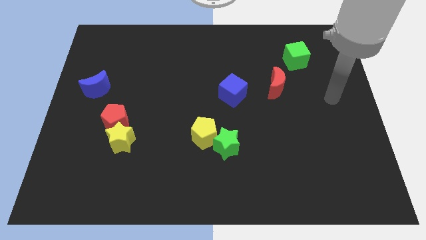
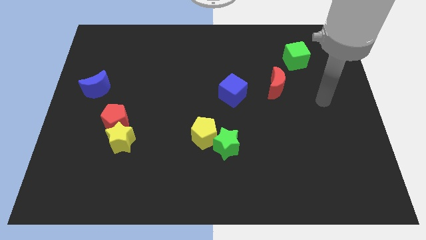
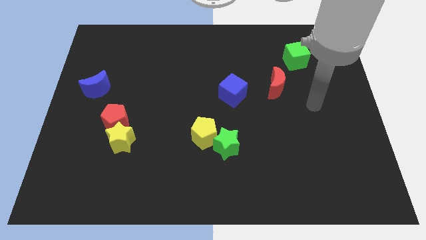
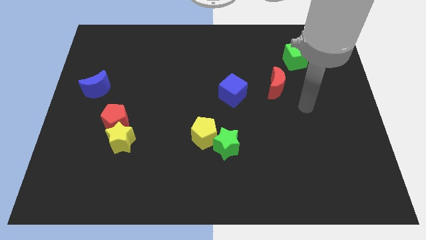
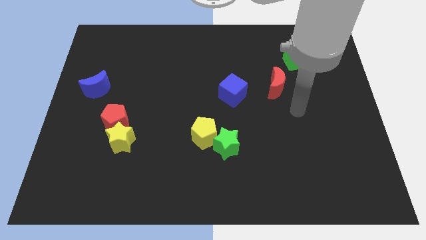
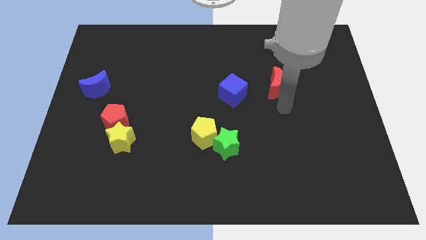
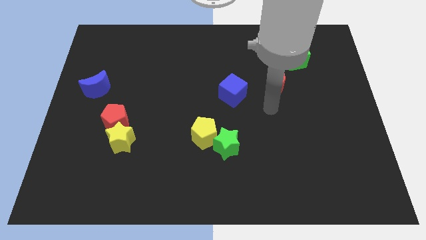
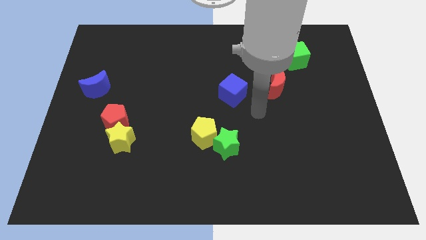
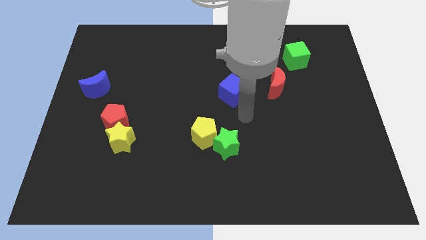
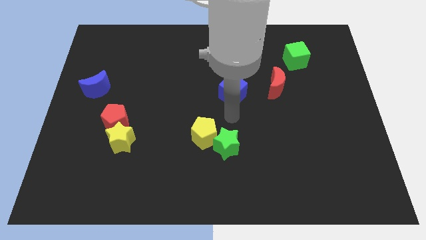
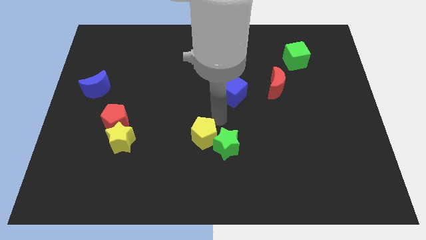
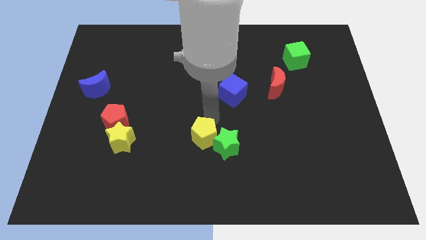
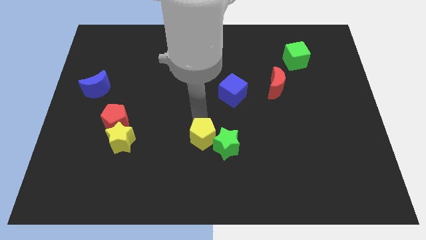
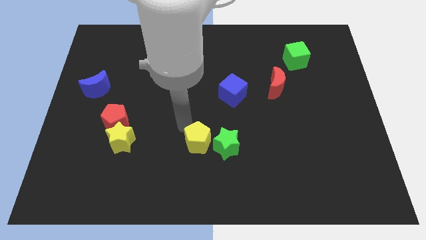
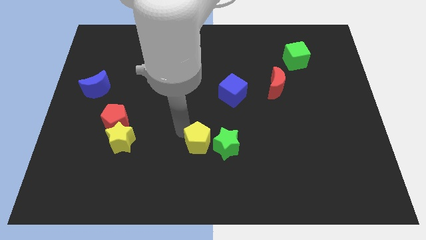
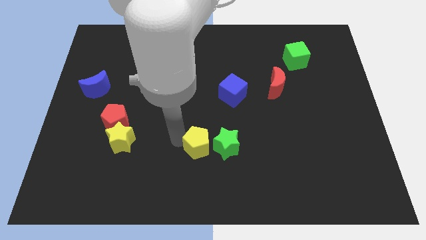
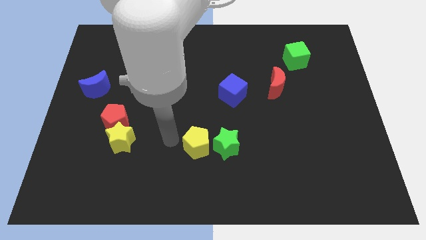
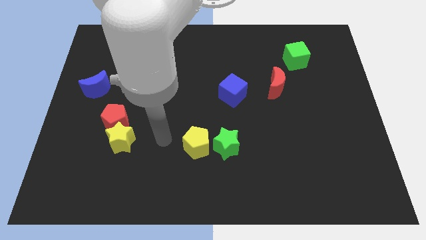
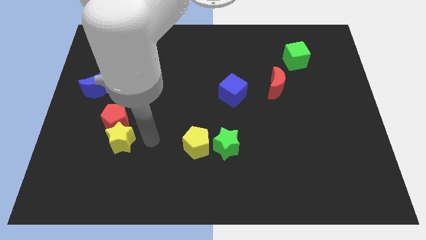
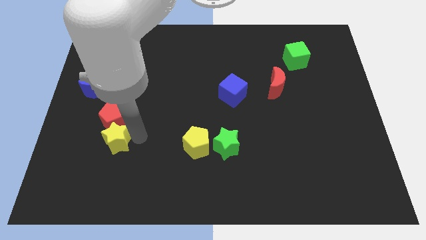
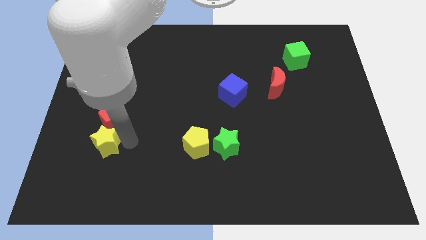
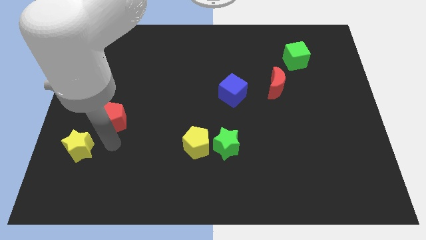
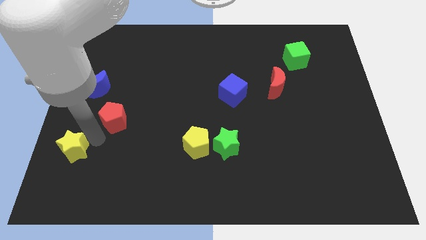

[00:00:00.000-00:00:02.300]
separate the red pentagon from the yellow star

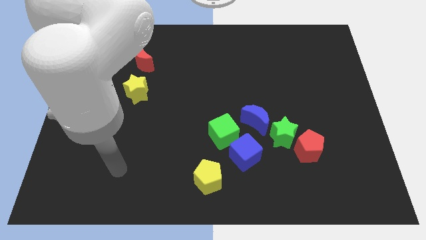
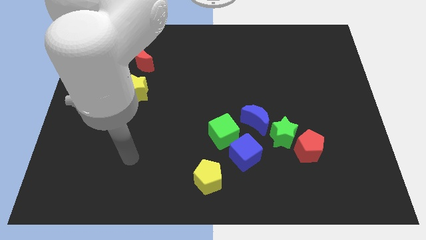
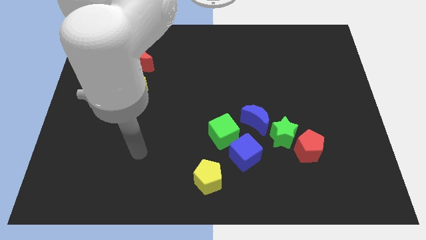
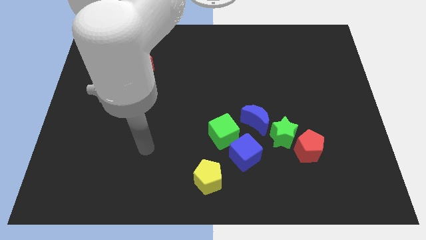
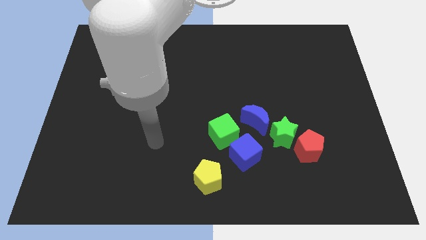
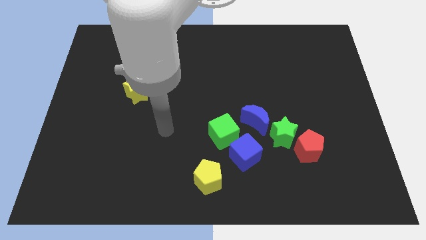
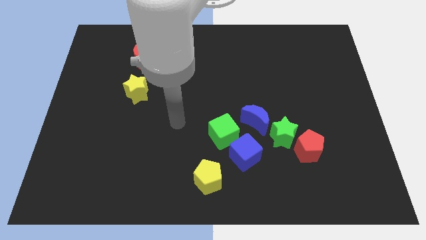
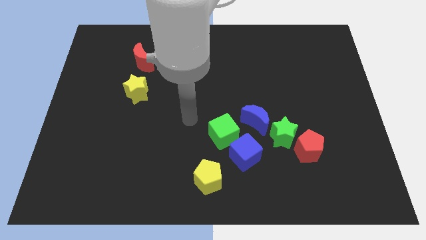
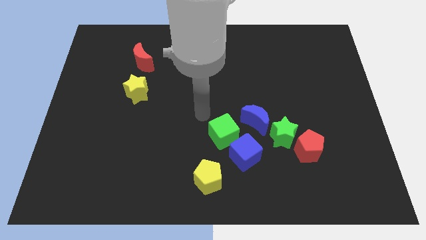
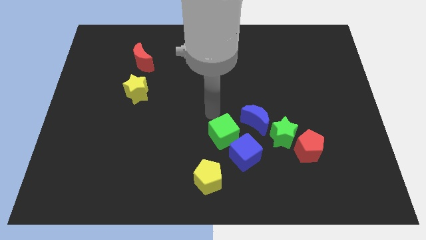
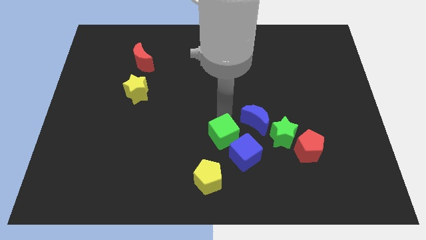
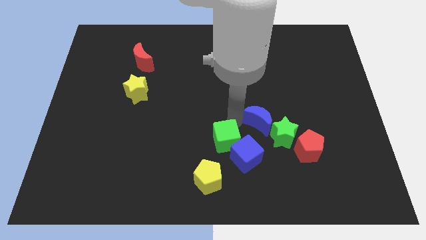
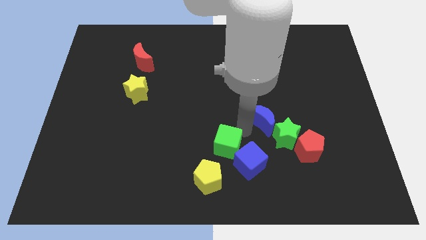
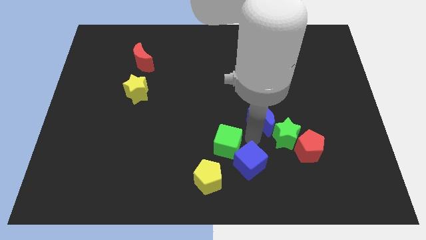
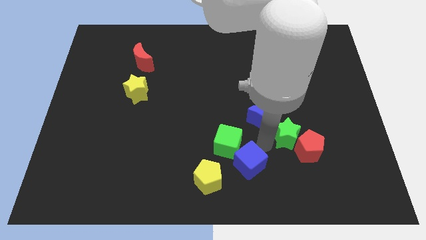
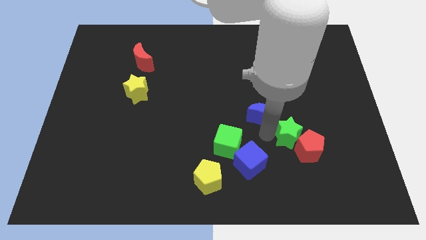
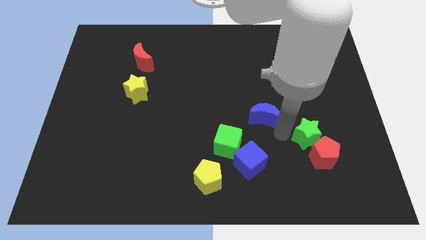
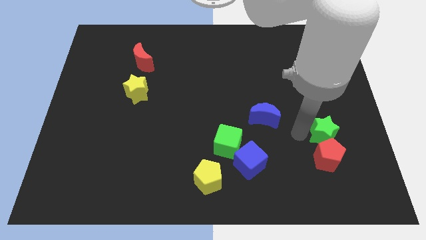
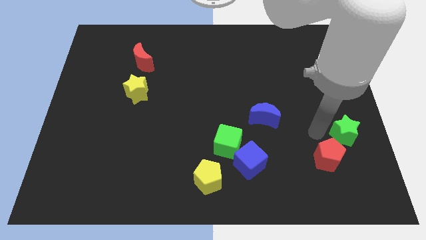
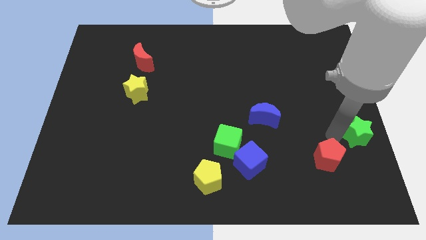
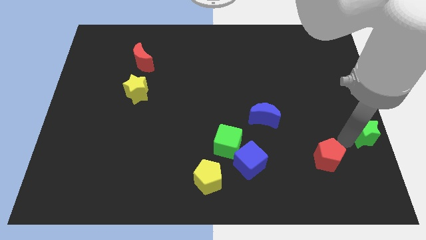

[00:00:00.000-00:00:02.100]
separate the red pentagon from the green star

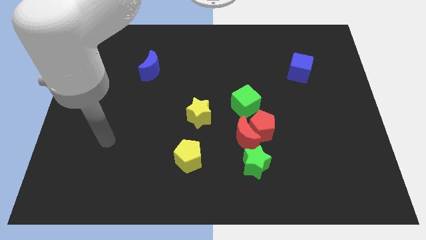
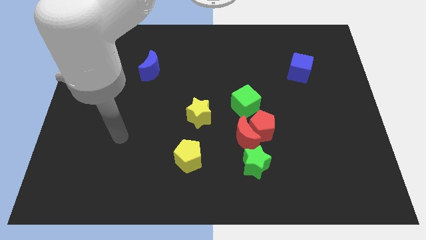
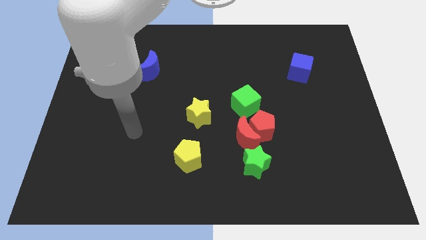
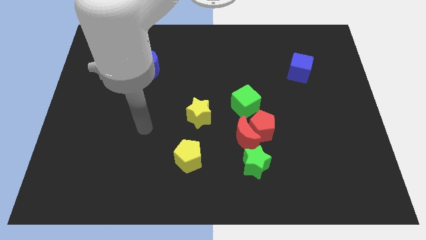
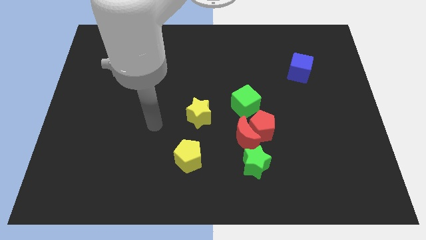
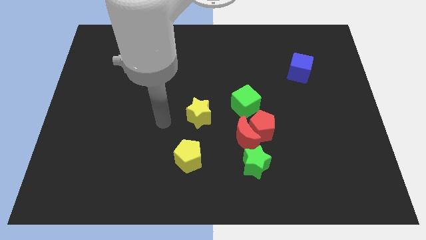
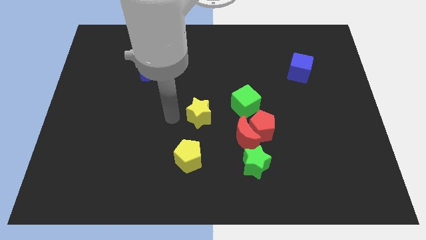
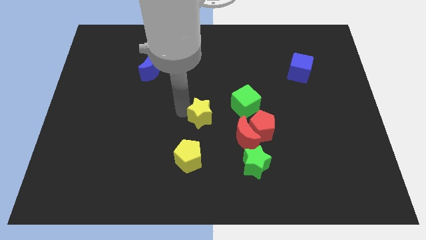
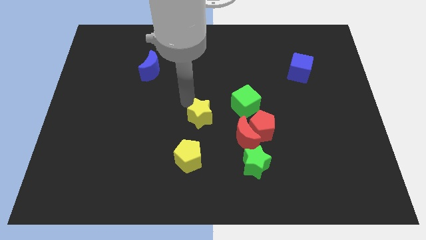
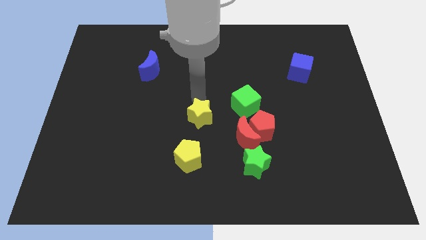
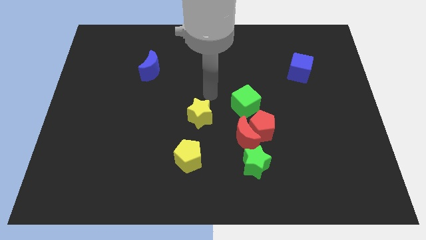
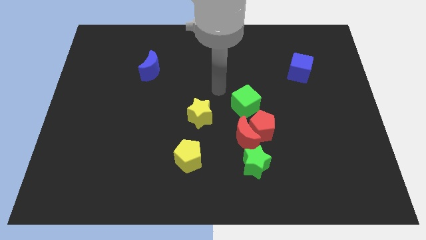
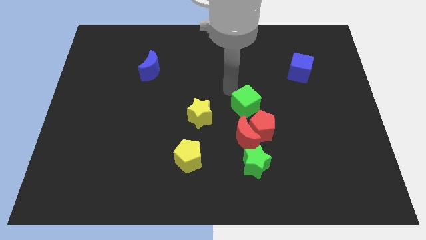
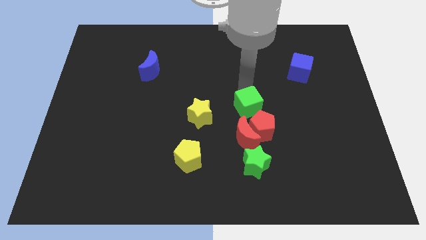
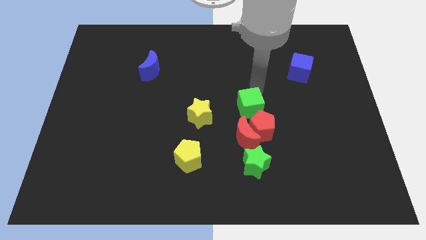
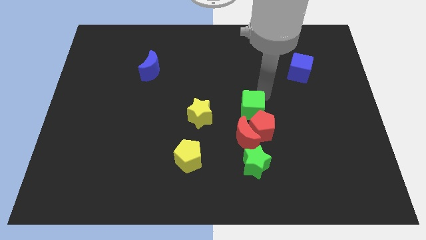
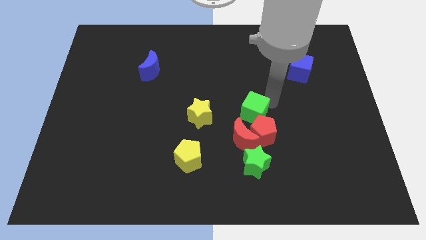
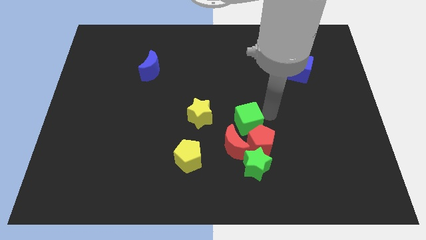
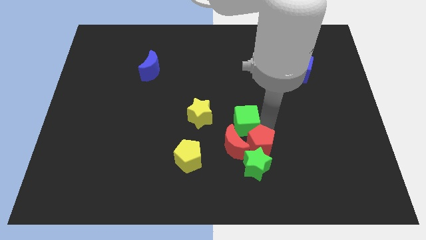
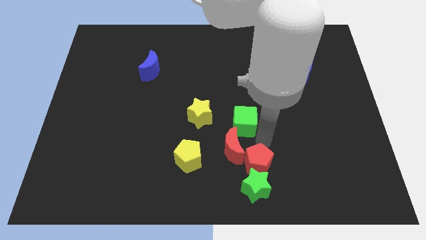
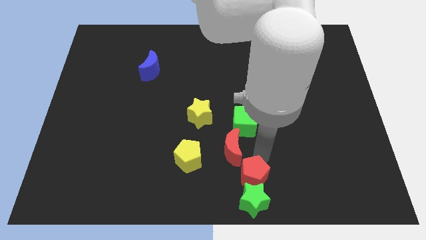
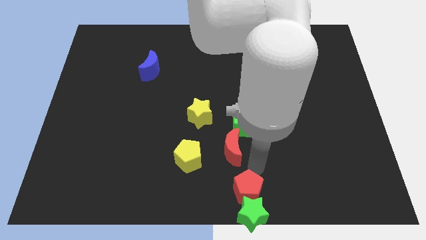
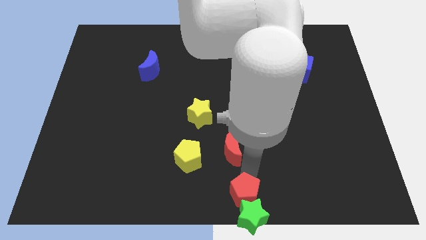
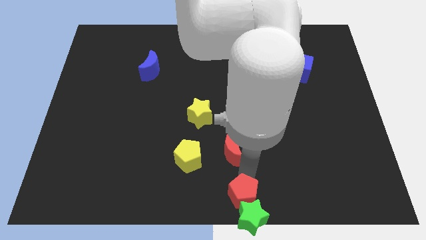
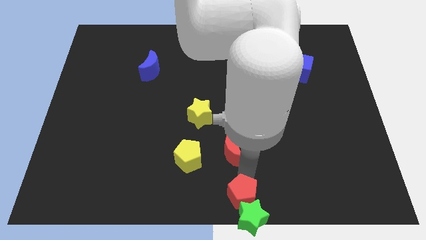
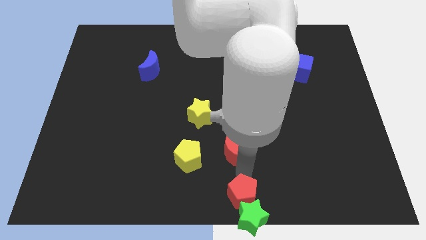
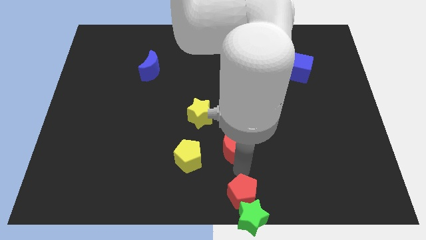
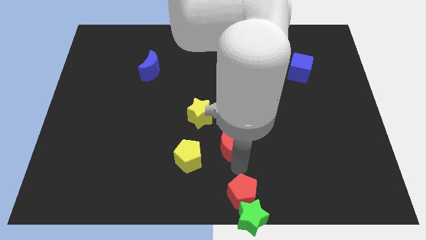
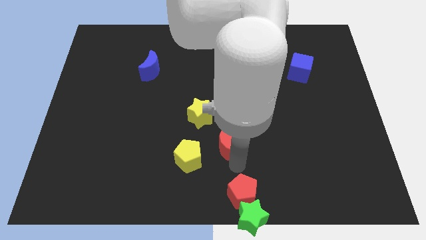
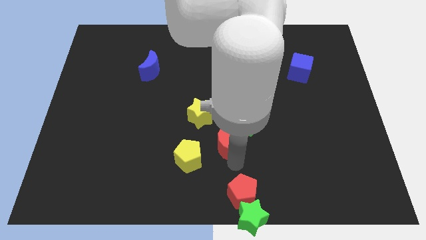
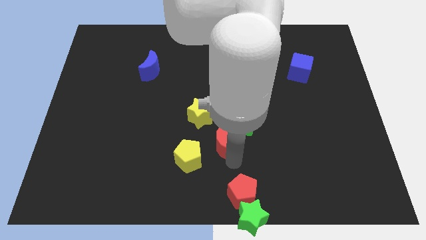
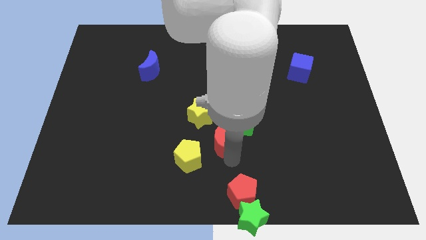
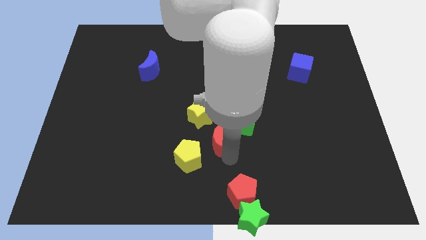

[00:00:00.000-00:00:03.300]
separate the red moon from the red pentagon, green star, and green cube

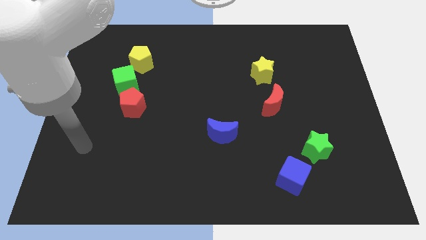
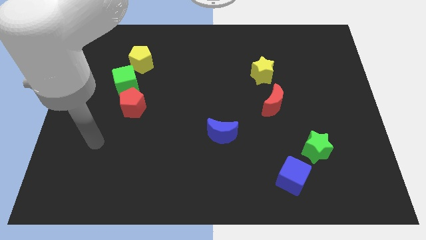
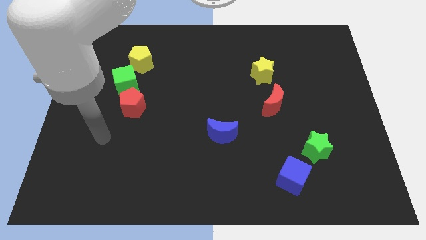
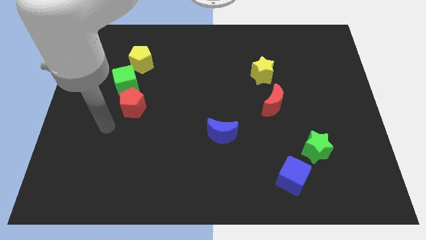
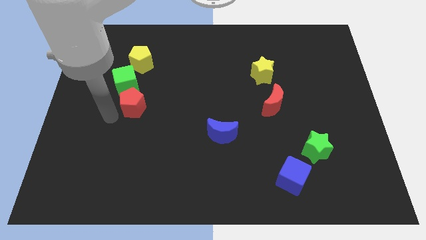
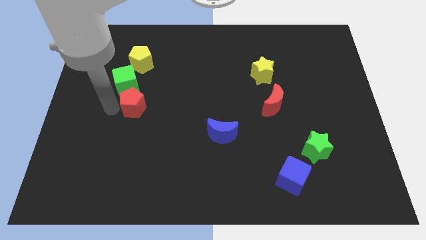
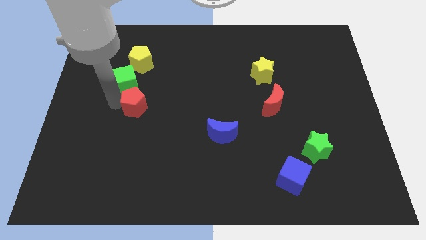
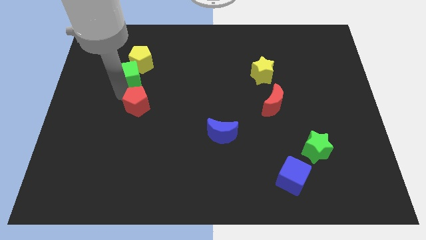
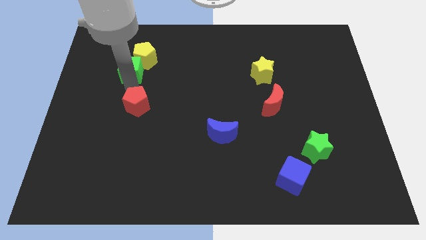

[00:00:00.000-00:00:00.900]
pull the red pentagon apart from the green cube

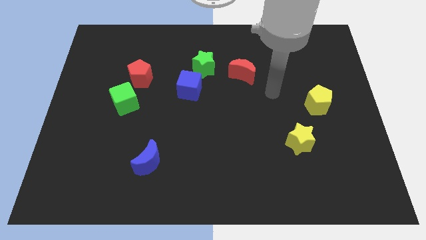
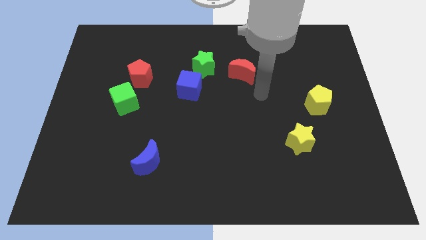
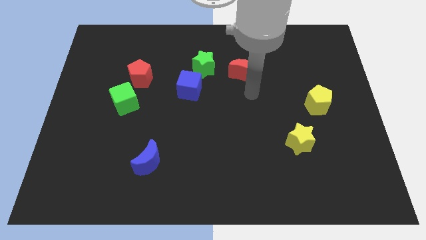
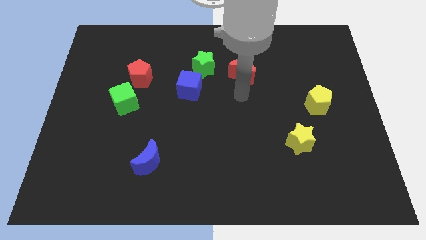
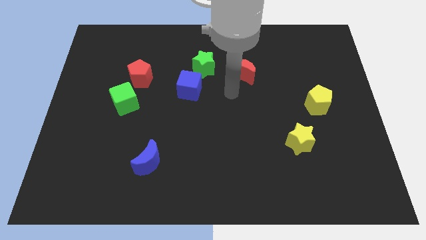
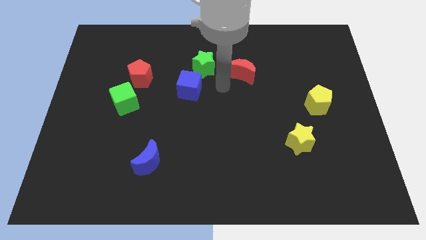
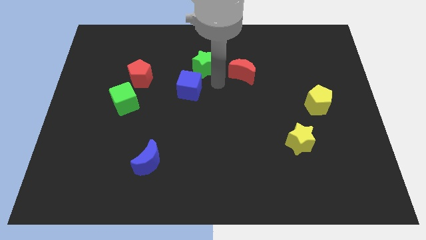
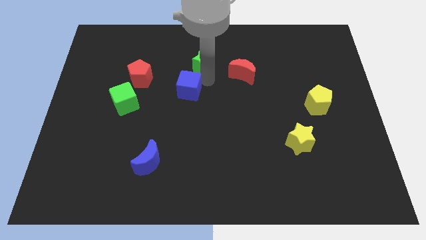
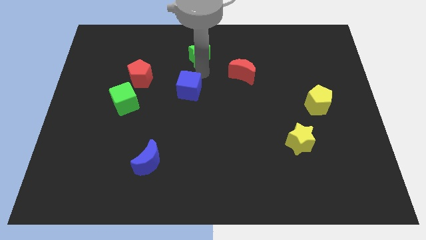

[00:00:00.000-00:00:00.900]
pull the blue cube apart from the green star
